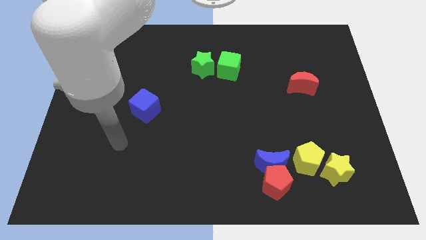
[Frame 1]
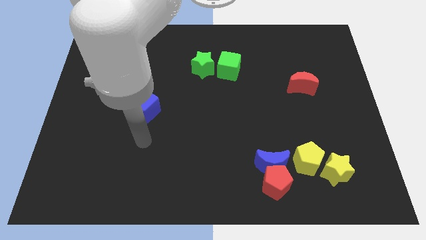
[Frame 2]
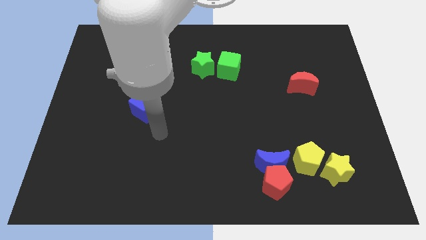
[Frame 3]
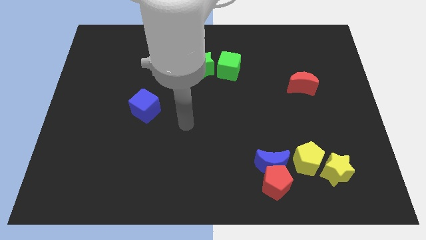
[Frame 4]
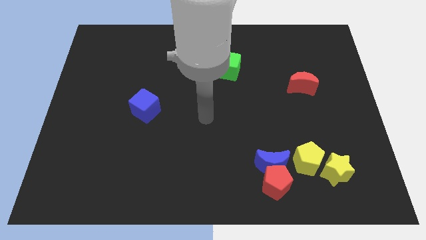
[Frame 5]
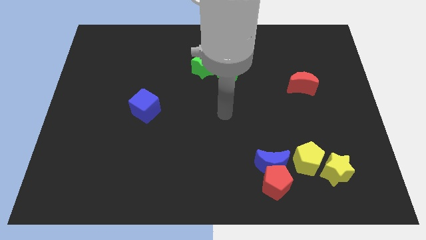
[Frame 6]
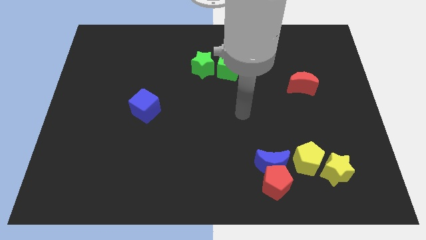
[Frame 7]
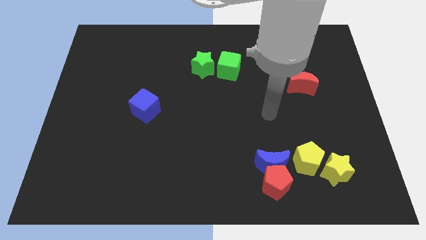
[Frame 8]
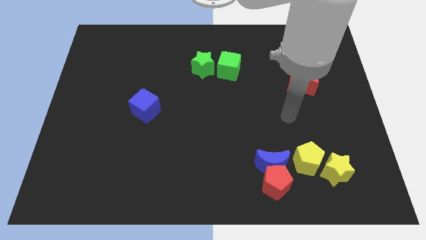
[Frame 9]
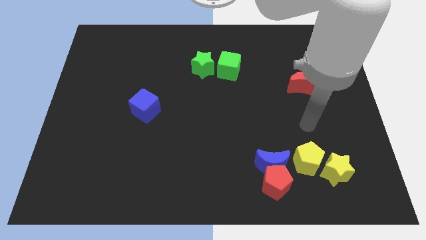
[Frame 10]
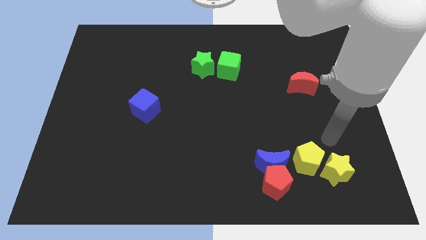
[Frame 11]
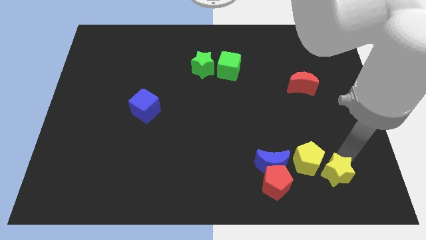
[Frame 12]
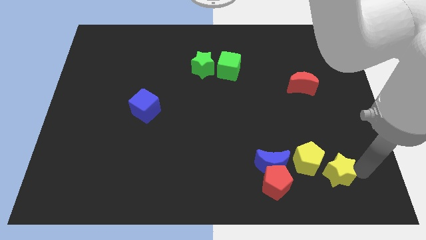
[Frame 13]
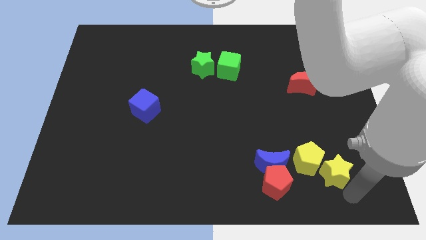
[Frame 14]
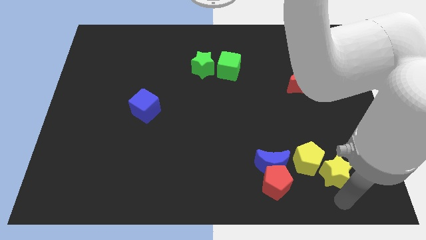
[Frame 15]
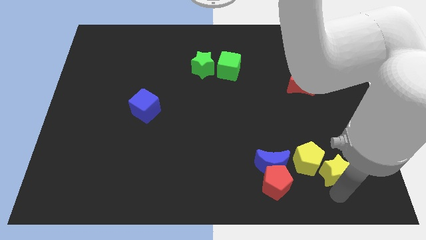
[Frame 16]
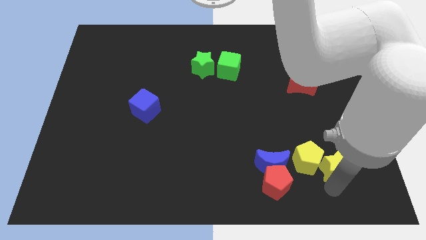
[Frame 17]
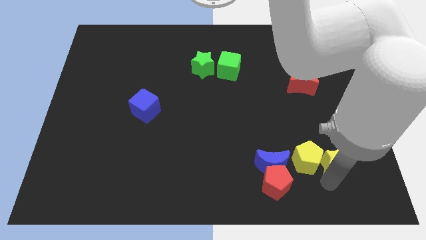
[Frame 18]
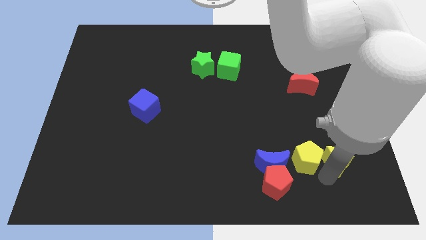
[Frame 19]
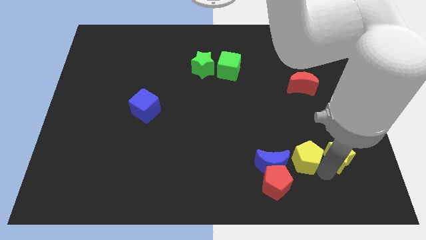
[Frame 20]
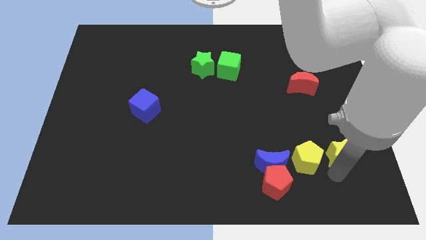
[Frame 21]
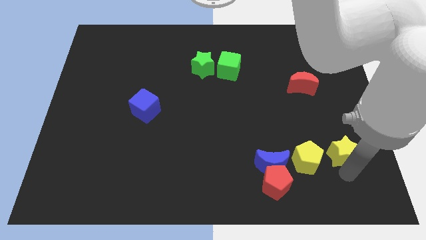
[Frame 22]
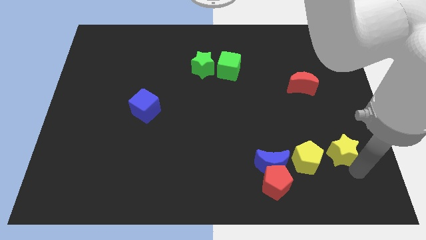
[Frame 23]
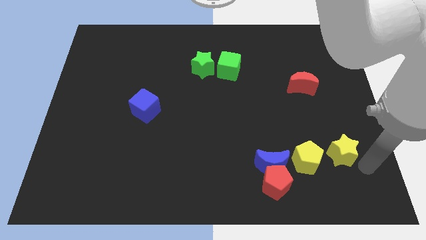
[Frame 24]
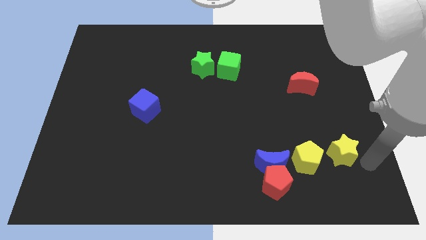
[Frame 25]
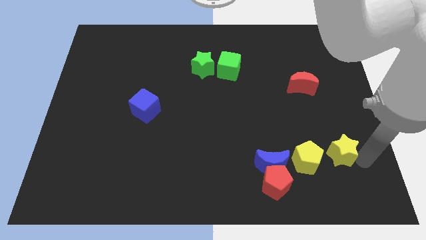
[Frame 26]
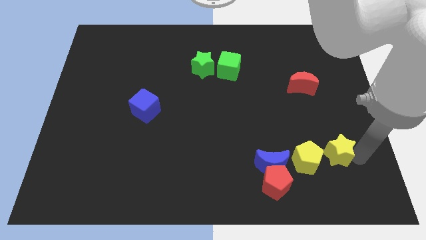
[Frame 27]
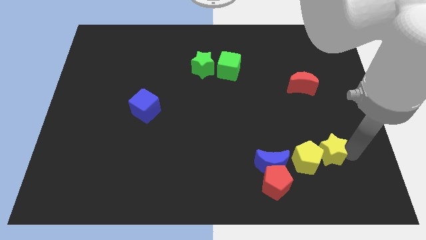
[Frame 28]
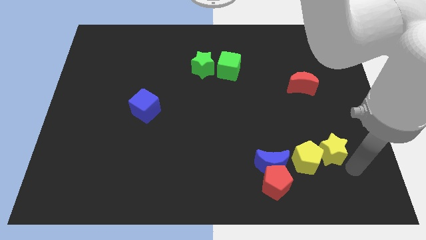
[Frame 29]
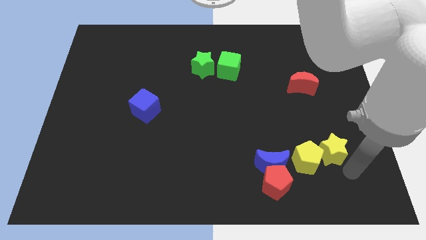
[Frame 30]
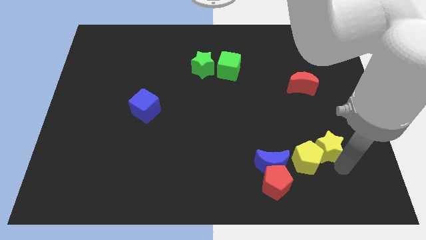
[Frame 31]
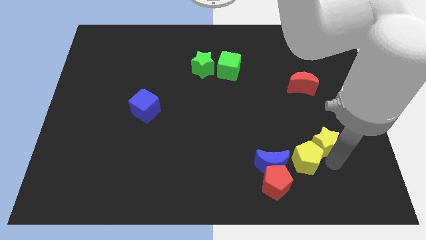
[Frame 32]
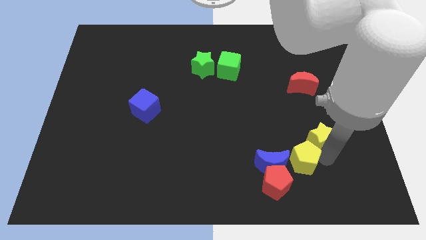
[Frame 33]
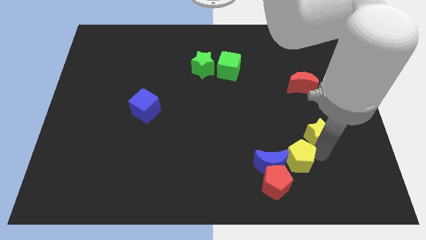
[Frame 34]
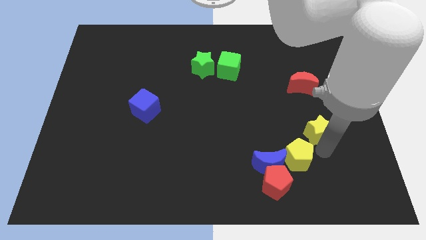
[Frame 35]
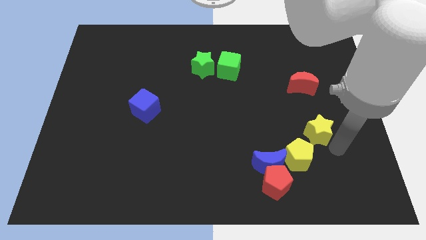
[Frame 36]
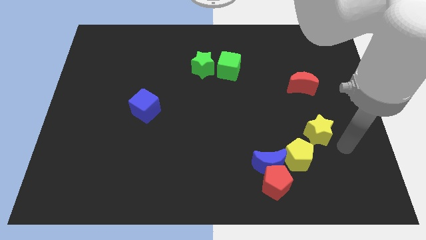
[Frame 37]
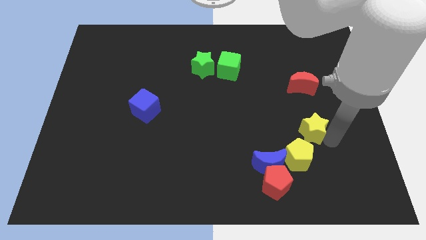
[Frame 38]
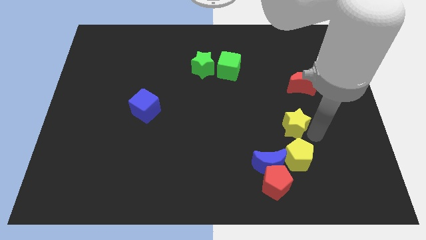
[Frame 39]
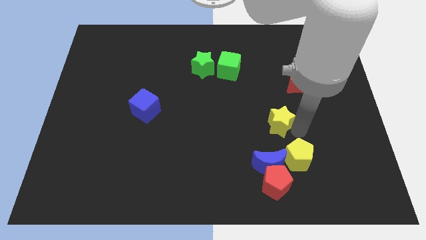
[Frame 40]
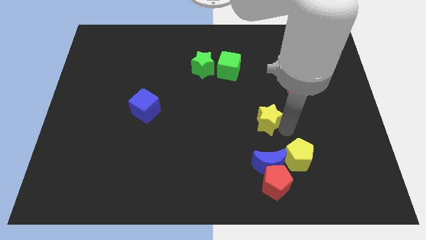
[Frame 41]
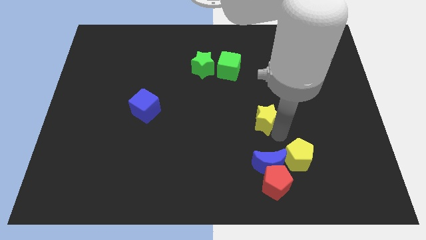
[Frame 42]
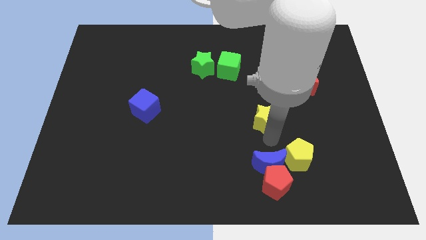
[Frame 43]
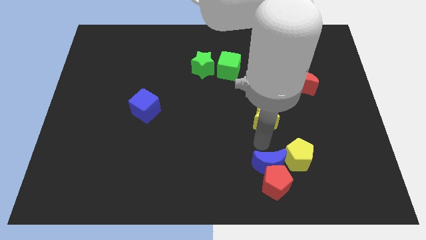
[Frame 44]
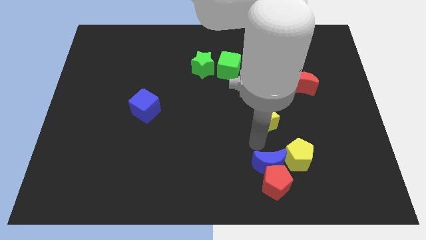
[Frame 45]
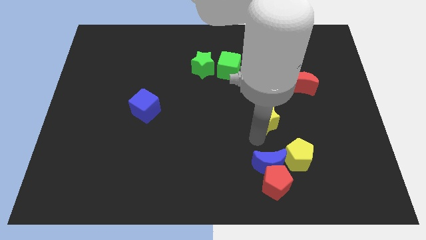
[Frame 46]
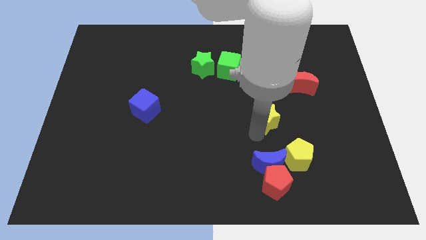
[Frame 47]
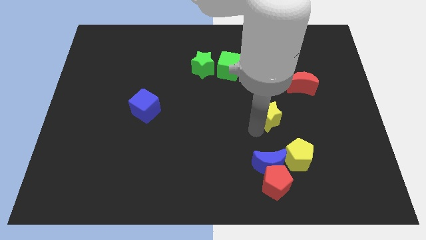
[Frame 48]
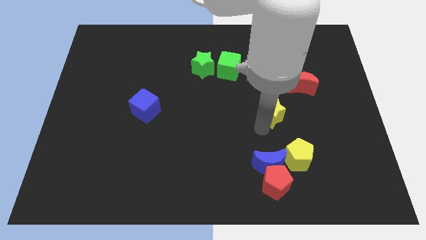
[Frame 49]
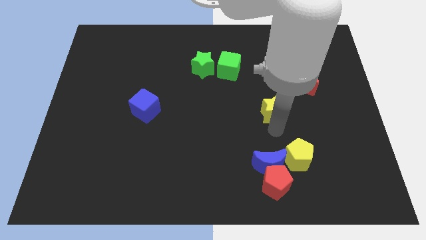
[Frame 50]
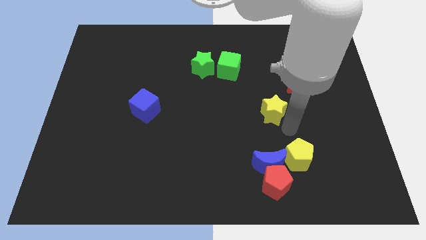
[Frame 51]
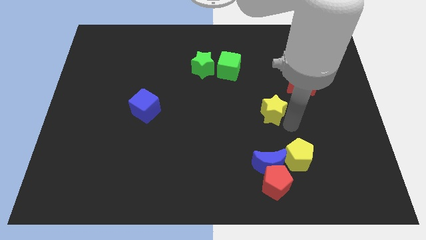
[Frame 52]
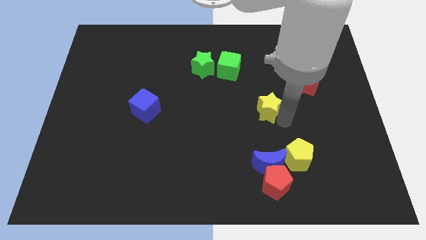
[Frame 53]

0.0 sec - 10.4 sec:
slide the yellow star upwards and to the left

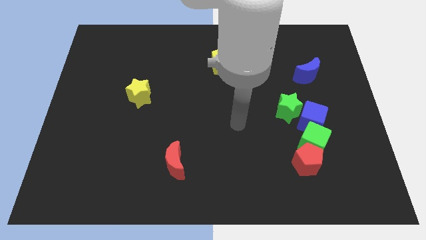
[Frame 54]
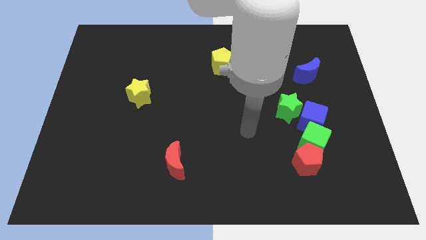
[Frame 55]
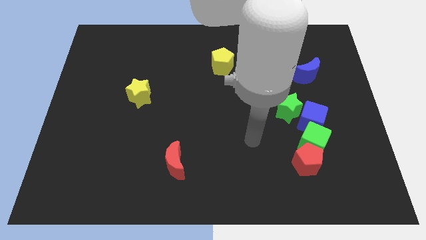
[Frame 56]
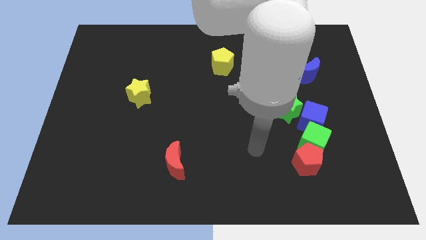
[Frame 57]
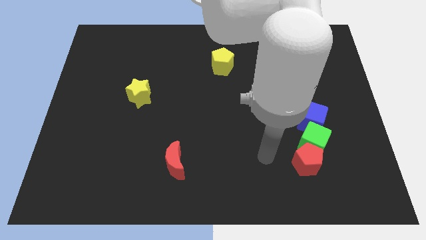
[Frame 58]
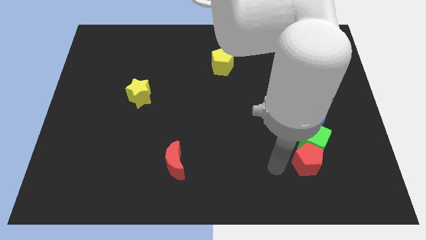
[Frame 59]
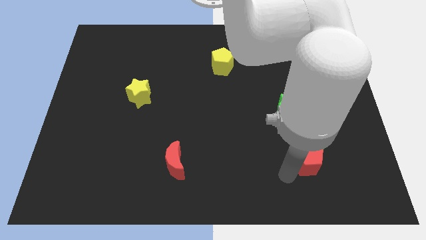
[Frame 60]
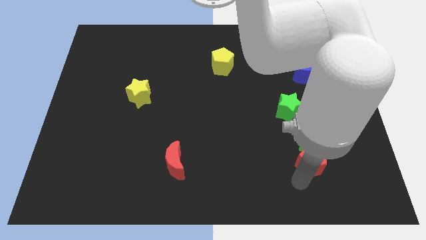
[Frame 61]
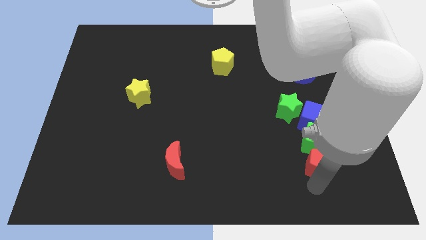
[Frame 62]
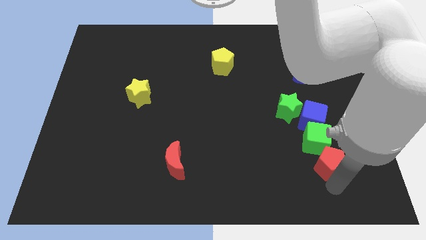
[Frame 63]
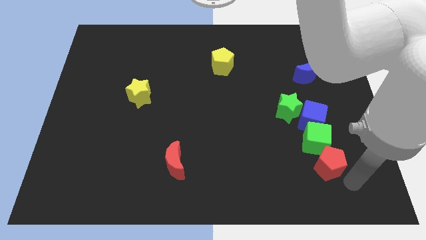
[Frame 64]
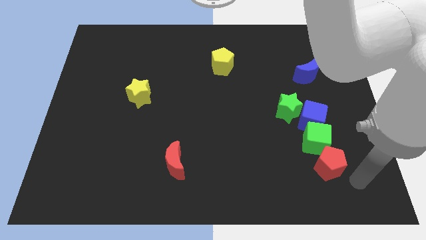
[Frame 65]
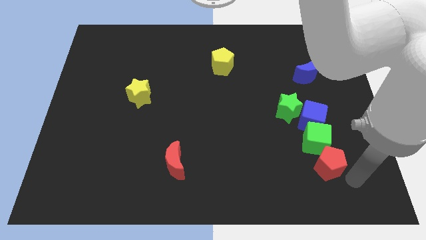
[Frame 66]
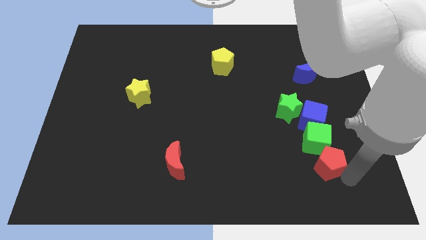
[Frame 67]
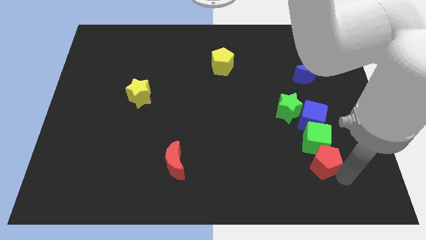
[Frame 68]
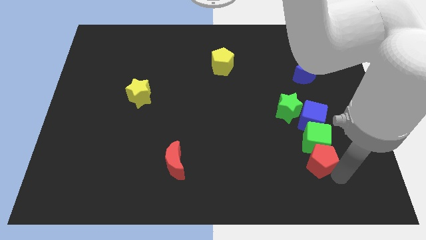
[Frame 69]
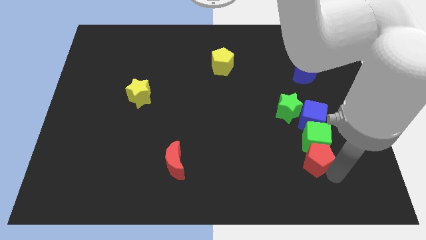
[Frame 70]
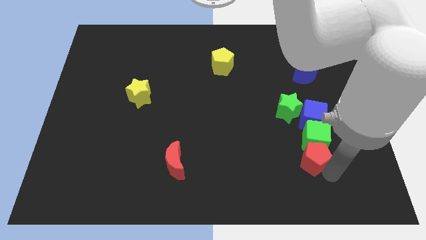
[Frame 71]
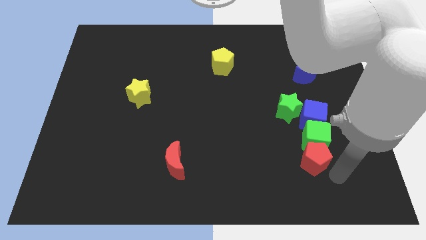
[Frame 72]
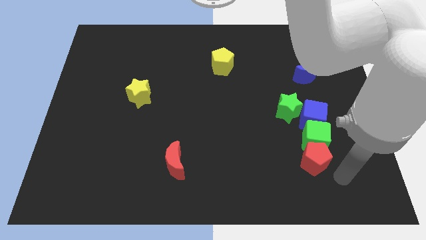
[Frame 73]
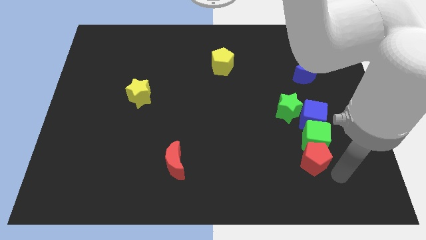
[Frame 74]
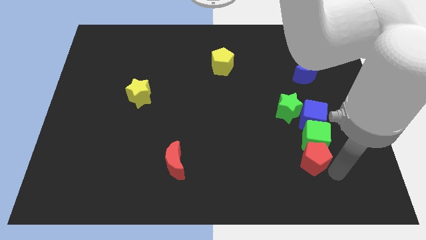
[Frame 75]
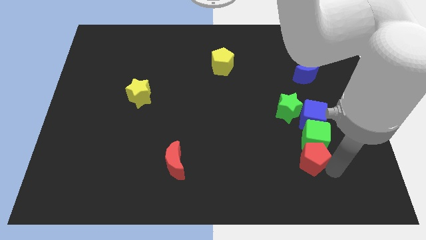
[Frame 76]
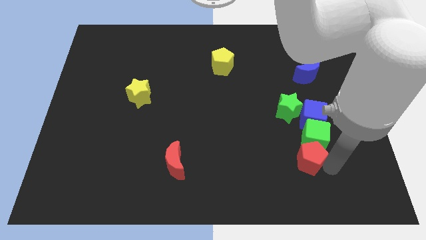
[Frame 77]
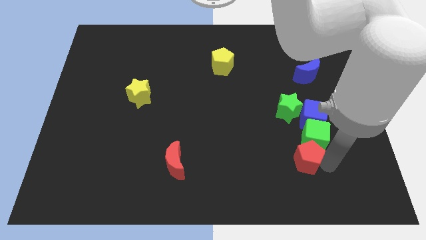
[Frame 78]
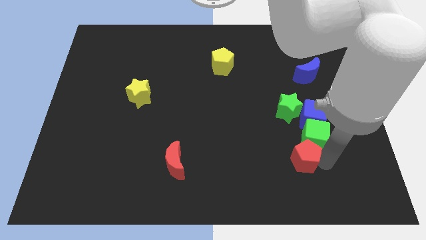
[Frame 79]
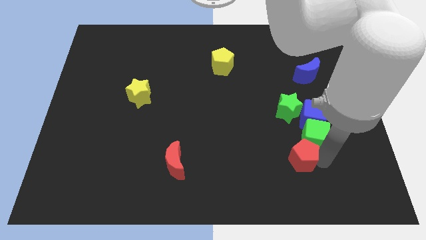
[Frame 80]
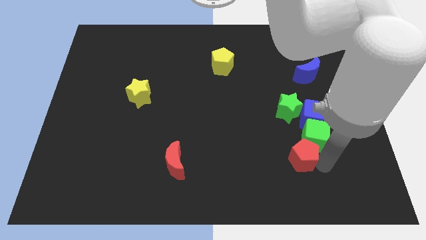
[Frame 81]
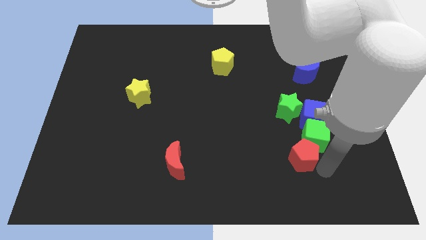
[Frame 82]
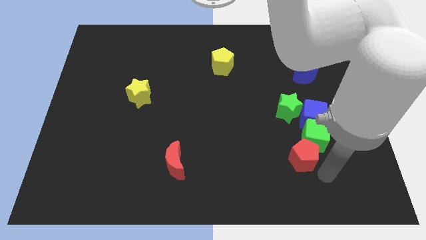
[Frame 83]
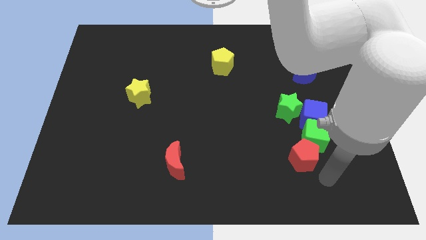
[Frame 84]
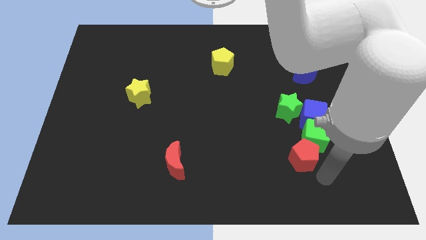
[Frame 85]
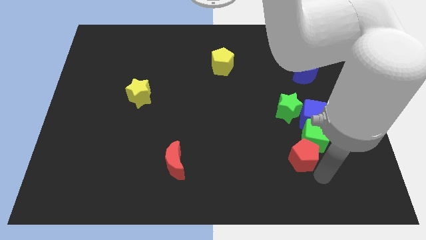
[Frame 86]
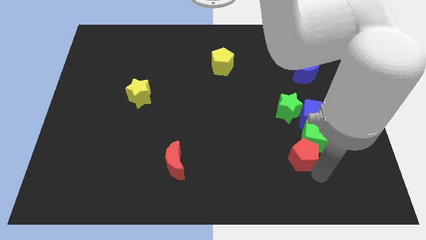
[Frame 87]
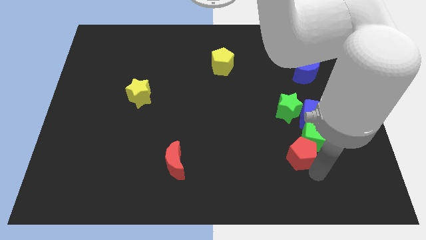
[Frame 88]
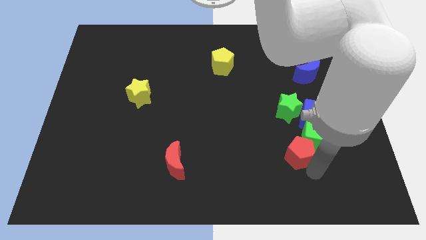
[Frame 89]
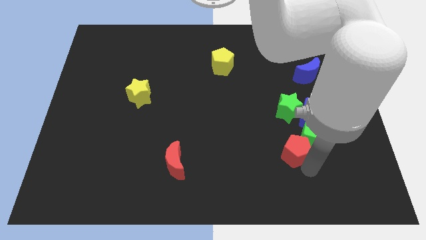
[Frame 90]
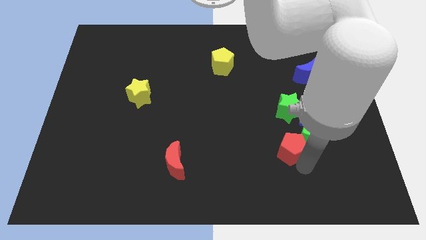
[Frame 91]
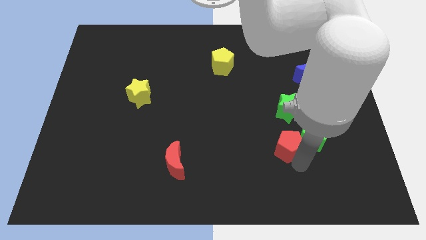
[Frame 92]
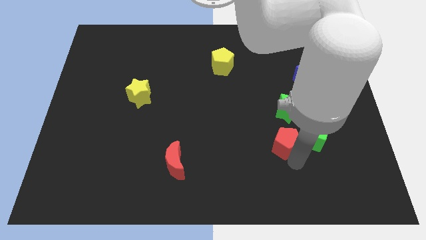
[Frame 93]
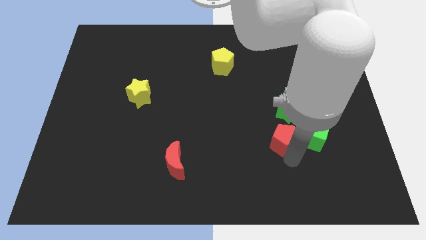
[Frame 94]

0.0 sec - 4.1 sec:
slide the red pentagon a bit up and left
